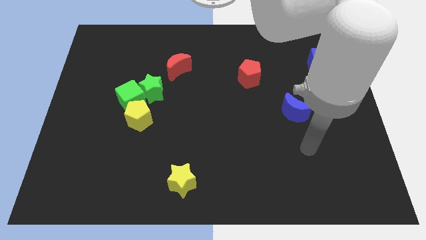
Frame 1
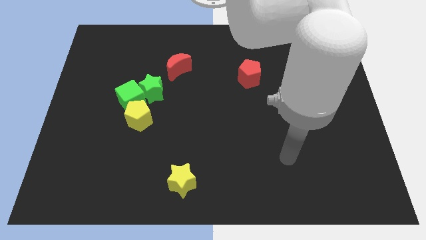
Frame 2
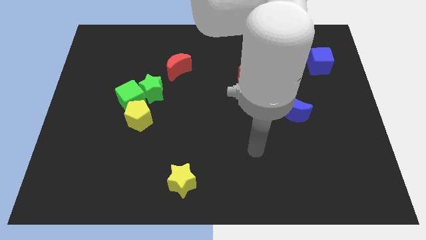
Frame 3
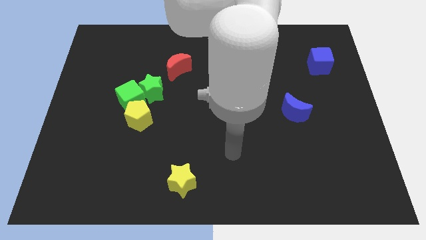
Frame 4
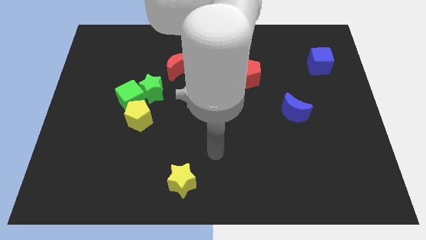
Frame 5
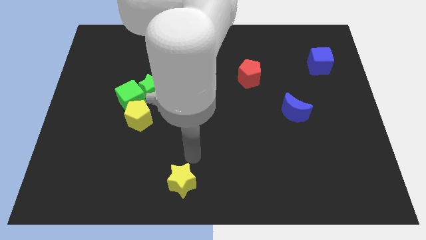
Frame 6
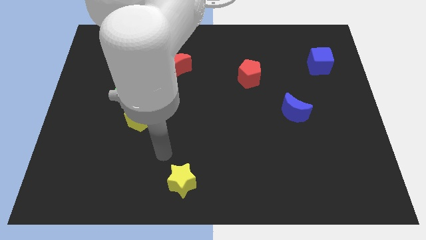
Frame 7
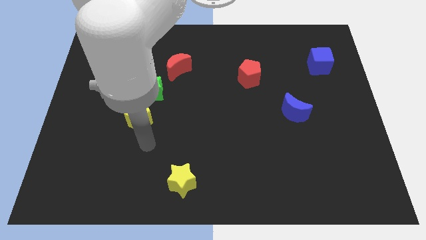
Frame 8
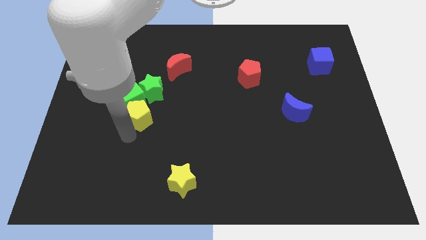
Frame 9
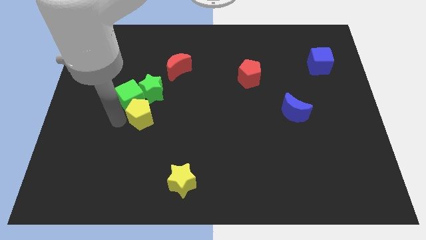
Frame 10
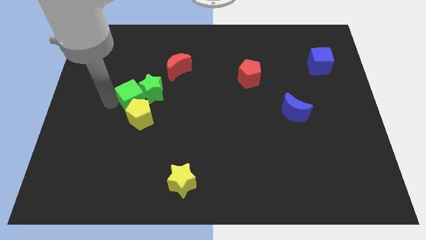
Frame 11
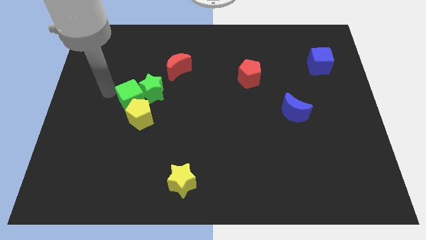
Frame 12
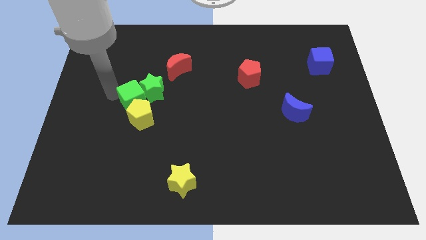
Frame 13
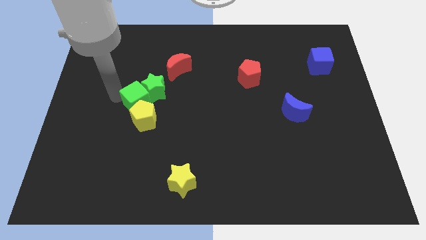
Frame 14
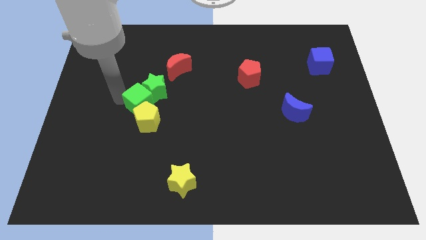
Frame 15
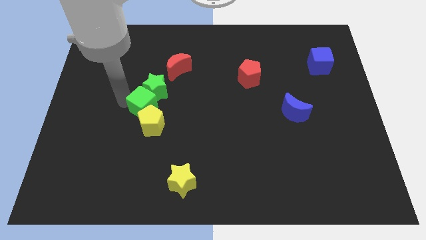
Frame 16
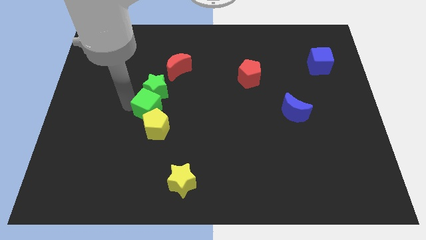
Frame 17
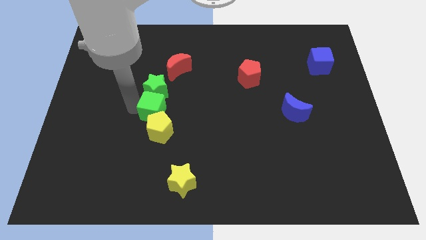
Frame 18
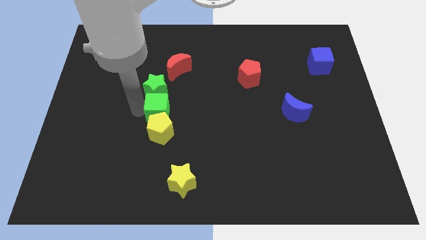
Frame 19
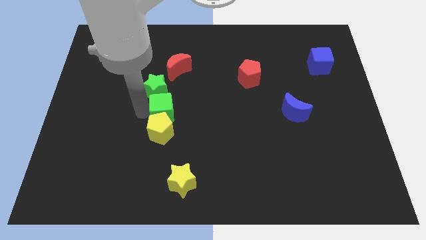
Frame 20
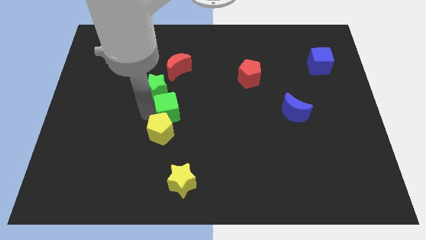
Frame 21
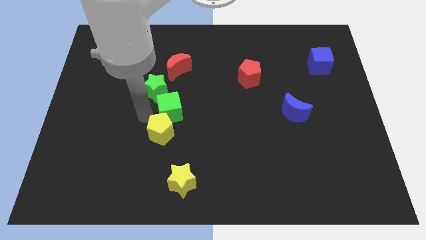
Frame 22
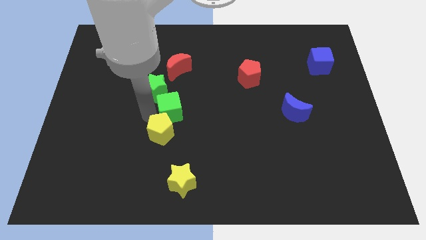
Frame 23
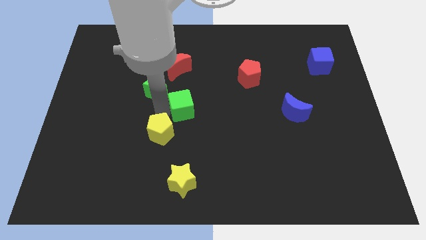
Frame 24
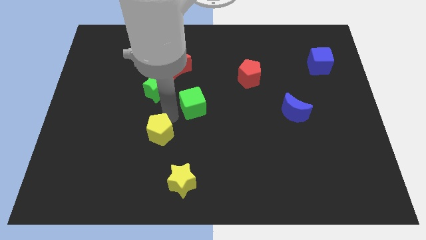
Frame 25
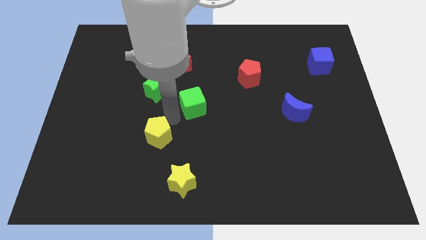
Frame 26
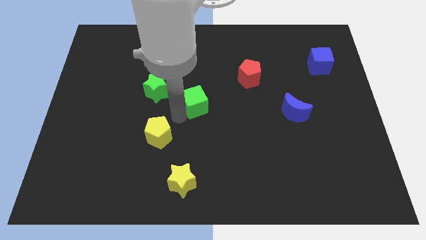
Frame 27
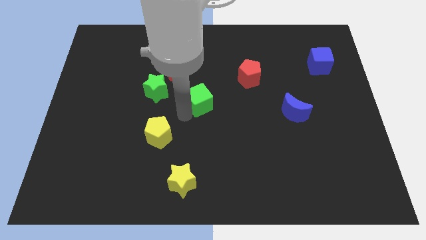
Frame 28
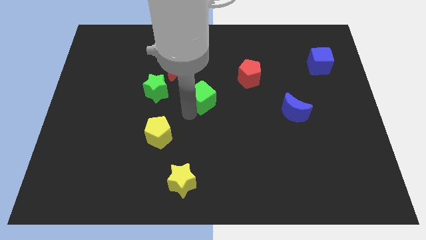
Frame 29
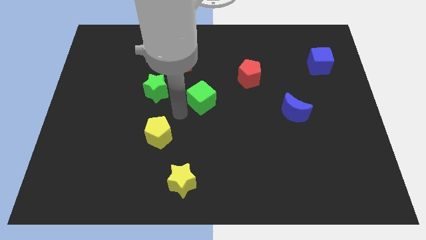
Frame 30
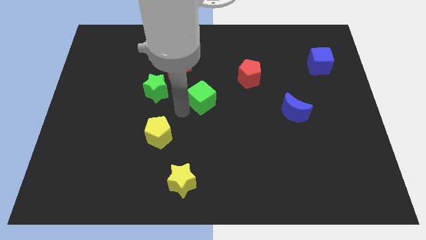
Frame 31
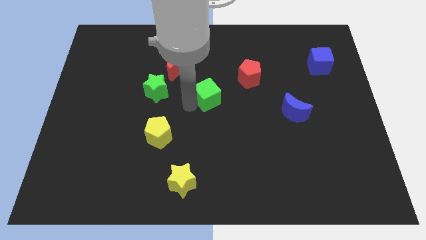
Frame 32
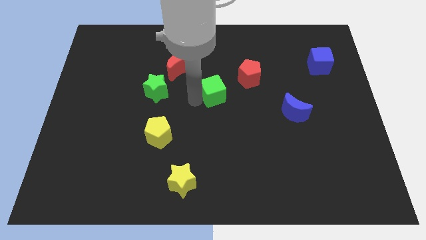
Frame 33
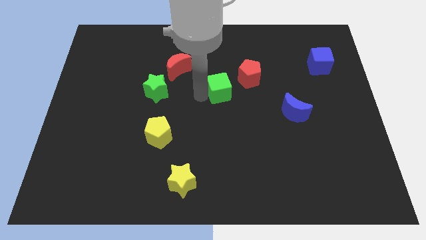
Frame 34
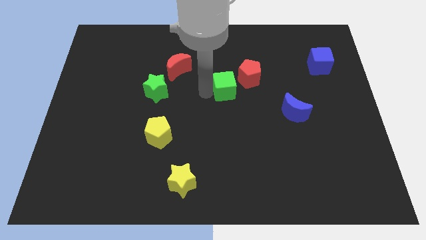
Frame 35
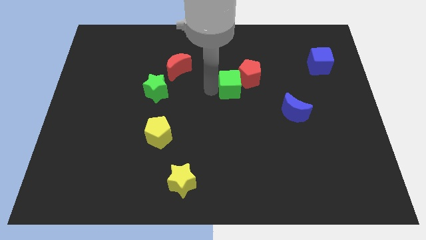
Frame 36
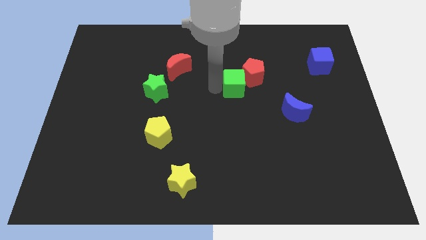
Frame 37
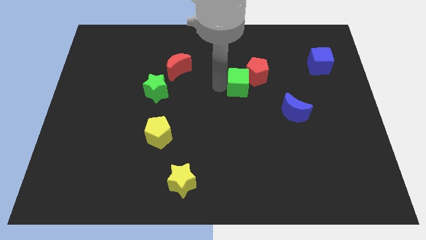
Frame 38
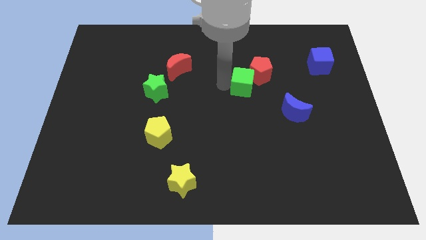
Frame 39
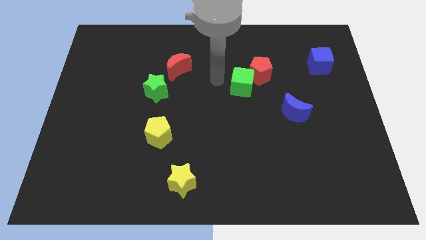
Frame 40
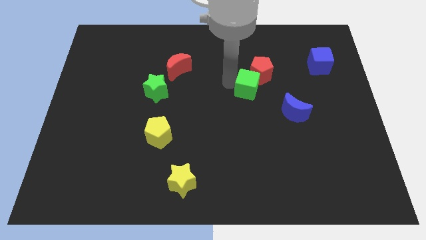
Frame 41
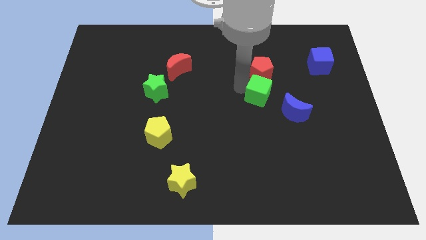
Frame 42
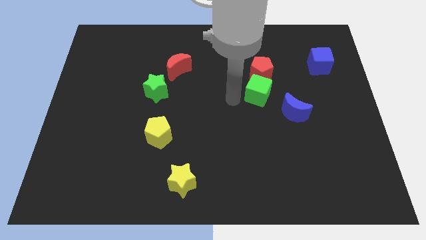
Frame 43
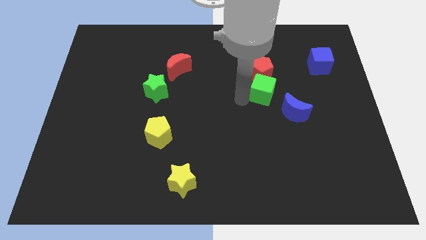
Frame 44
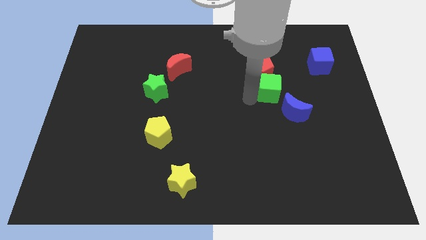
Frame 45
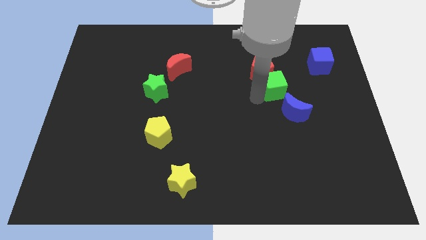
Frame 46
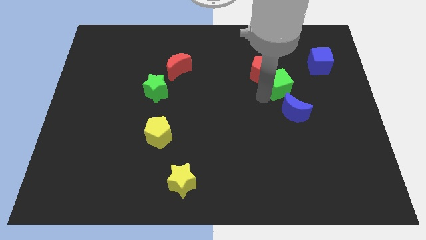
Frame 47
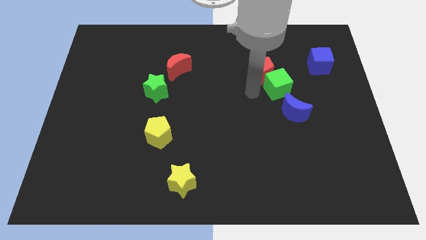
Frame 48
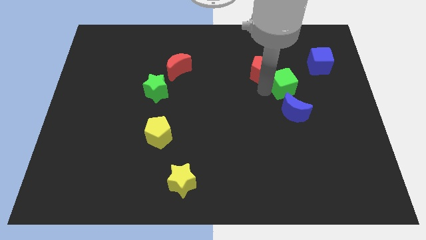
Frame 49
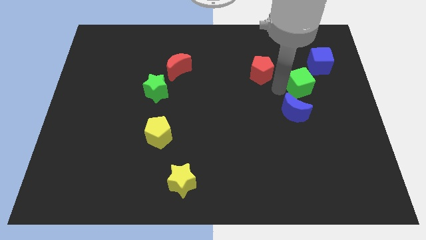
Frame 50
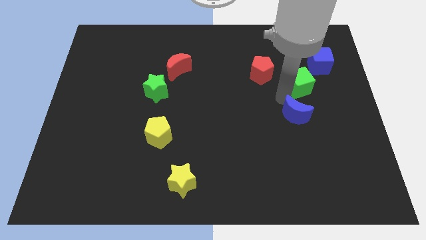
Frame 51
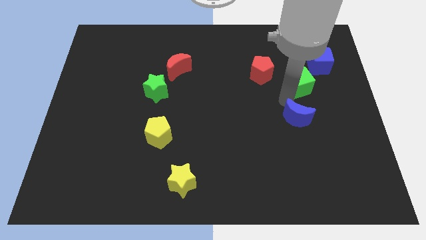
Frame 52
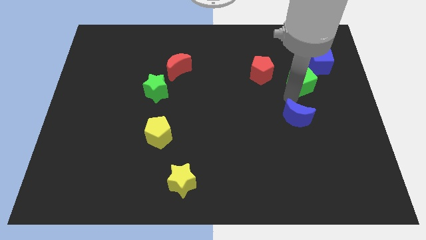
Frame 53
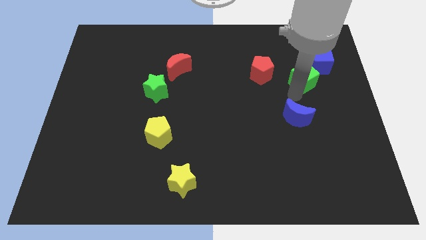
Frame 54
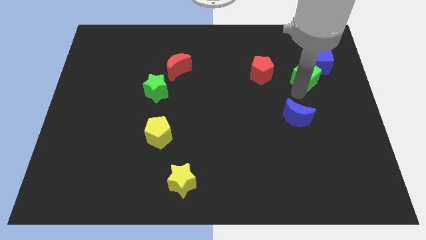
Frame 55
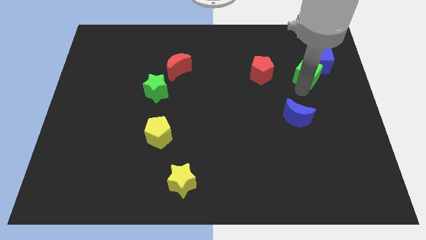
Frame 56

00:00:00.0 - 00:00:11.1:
move the green cube next to the blue cube

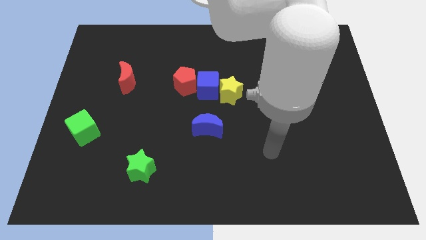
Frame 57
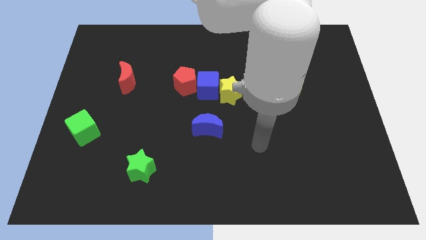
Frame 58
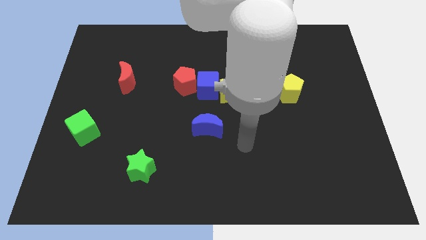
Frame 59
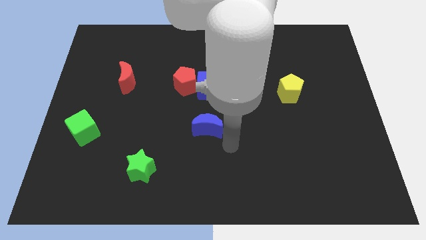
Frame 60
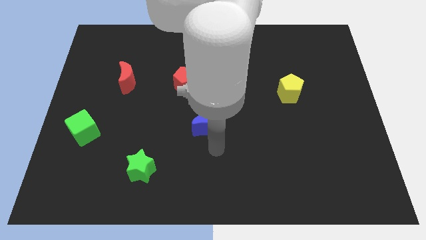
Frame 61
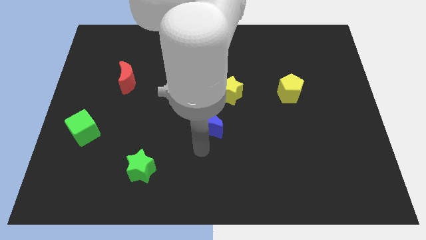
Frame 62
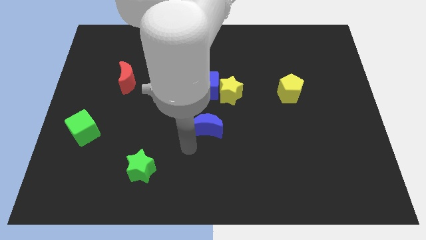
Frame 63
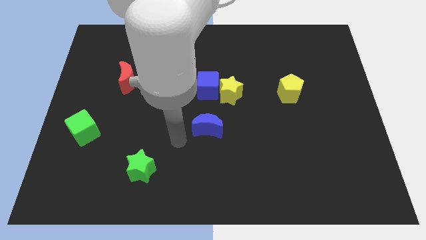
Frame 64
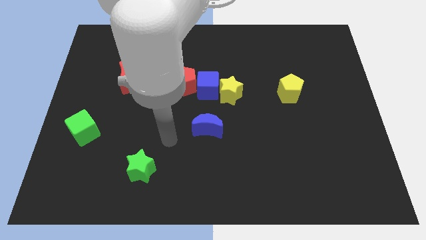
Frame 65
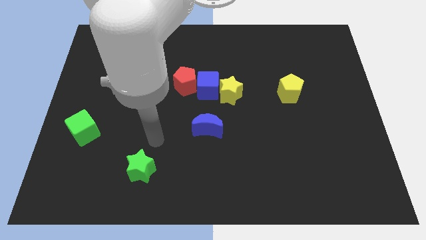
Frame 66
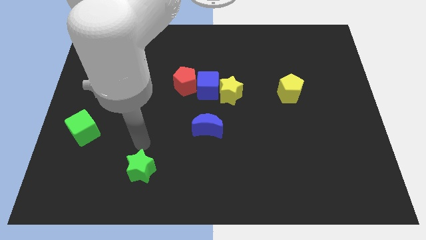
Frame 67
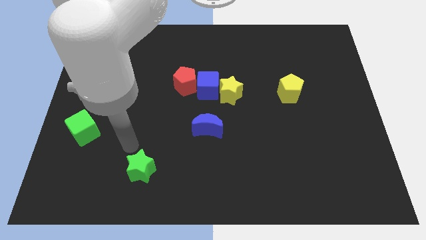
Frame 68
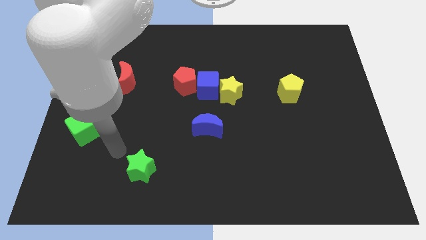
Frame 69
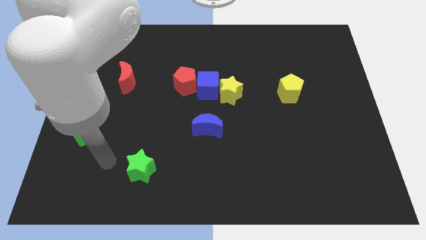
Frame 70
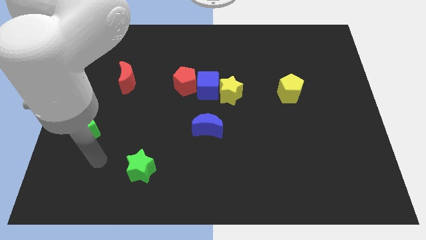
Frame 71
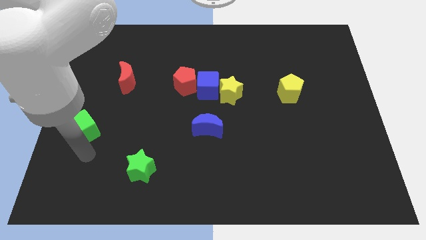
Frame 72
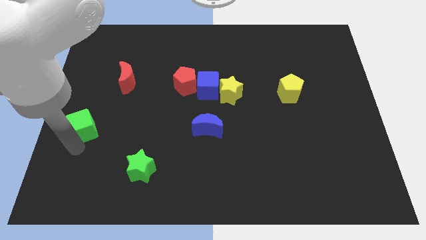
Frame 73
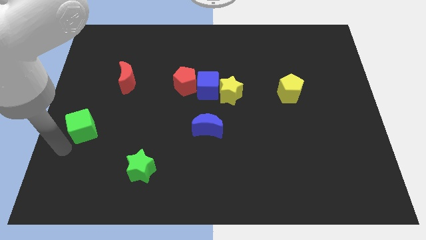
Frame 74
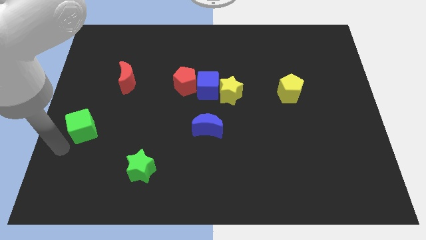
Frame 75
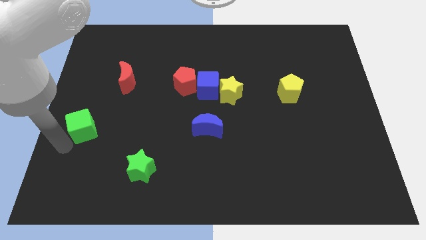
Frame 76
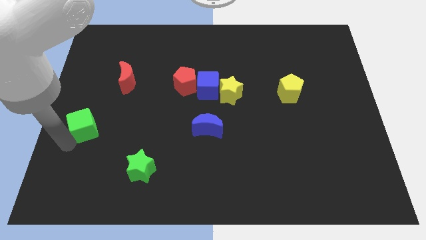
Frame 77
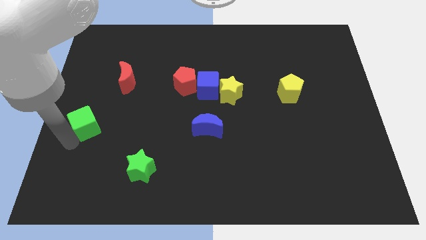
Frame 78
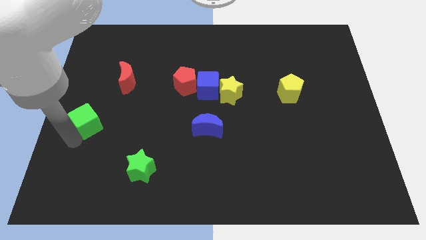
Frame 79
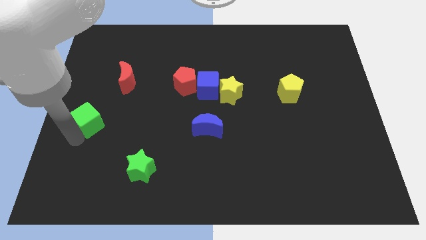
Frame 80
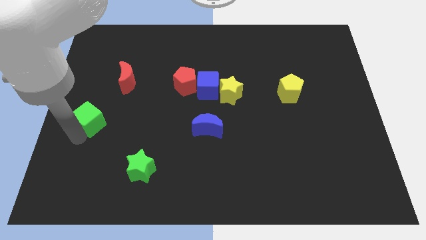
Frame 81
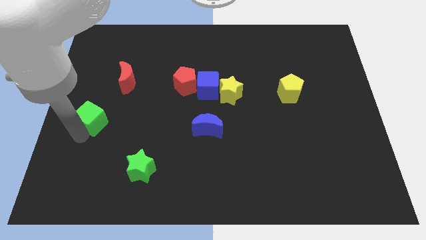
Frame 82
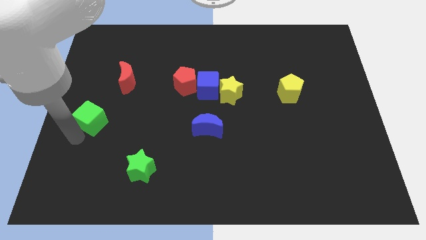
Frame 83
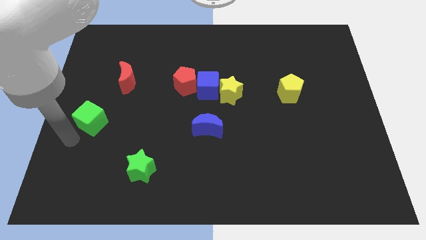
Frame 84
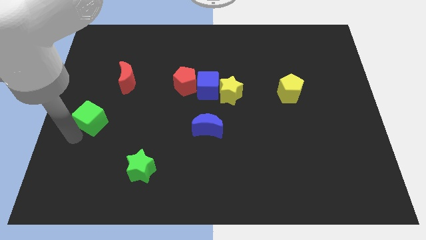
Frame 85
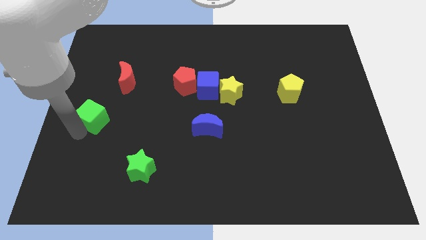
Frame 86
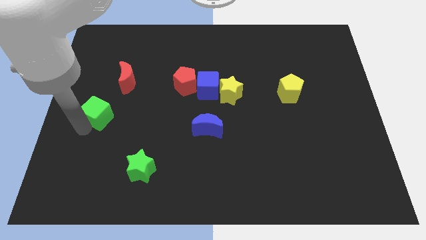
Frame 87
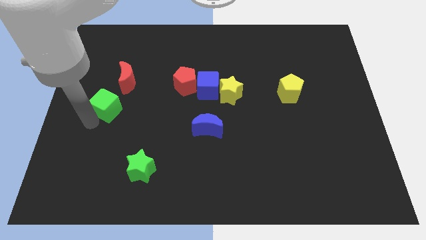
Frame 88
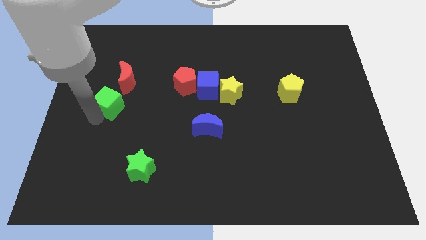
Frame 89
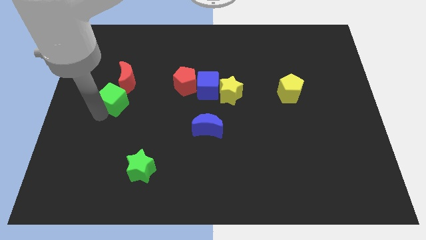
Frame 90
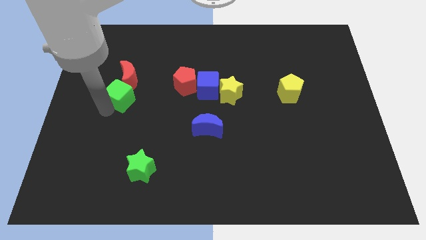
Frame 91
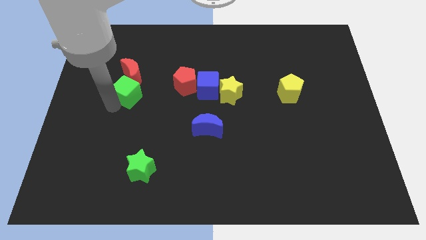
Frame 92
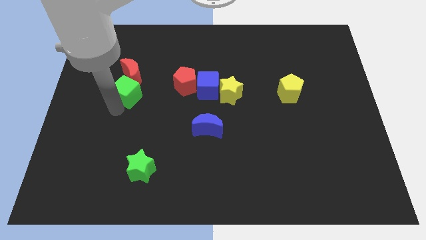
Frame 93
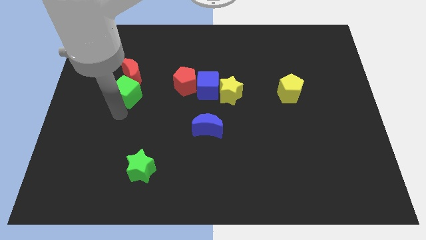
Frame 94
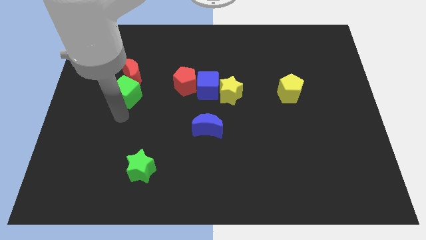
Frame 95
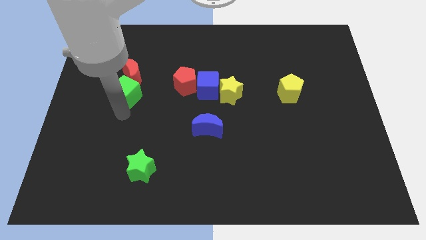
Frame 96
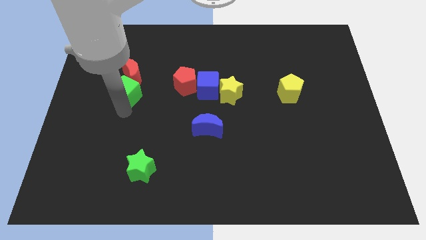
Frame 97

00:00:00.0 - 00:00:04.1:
move the green cube next to the red moon
